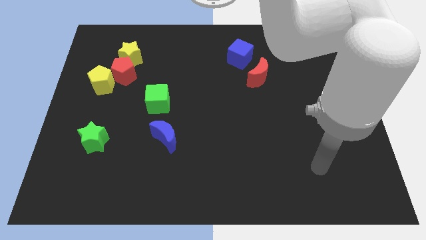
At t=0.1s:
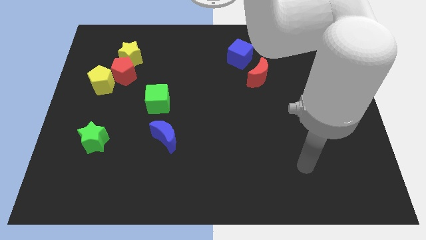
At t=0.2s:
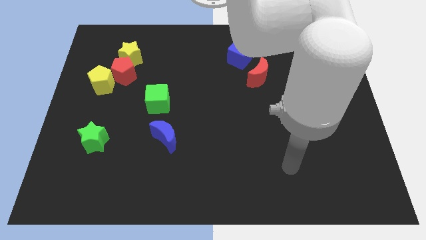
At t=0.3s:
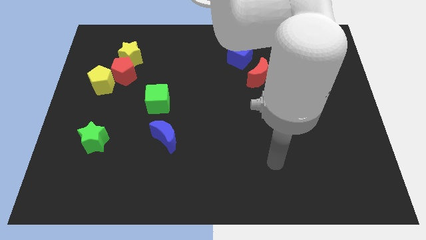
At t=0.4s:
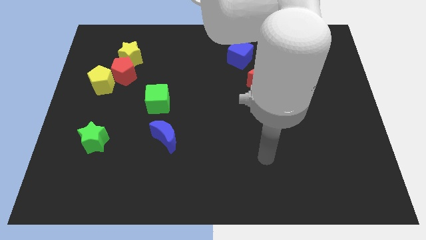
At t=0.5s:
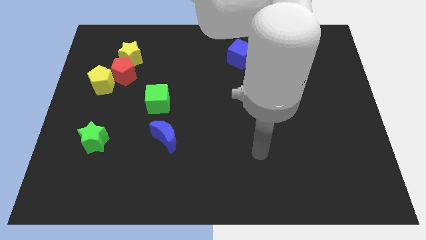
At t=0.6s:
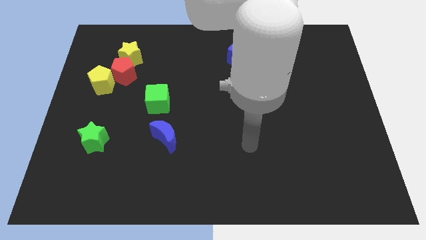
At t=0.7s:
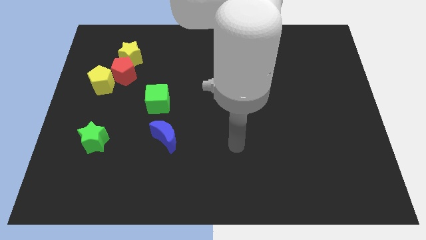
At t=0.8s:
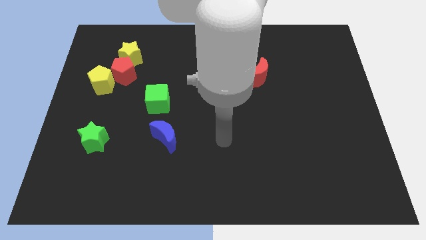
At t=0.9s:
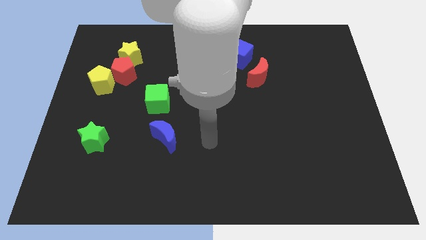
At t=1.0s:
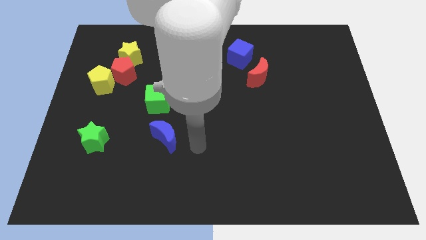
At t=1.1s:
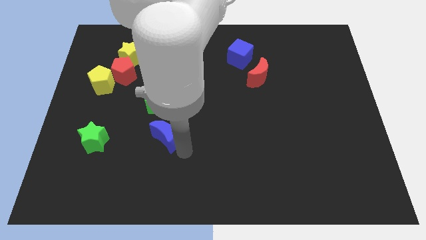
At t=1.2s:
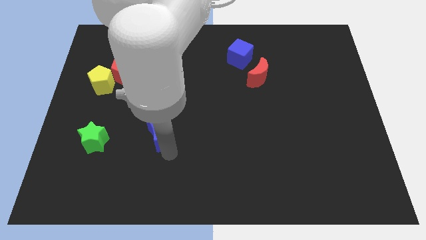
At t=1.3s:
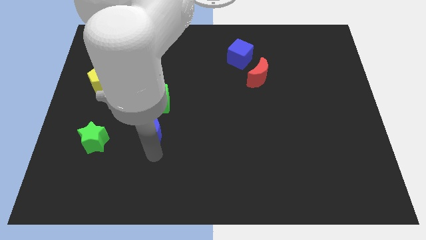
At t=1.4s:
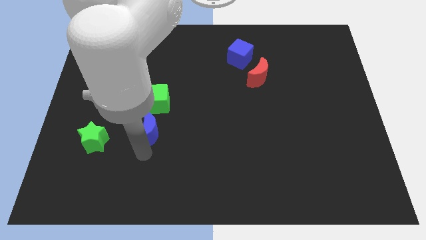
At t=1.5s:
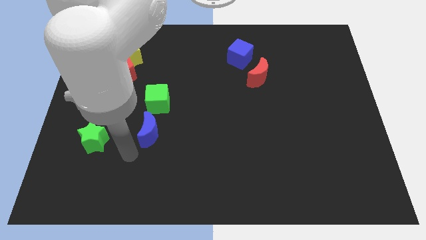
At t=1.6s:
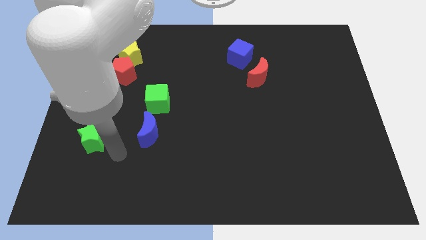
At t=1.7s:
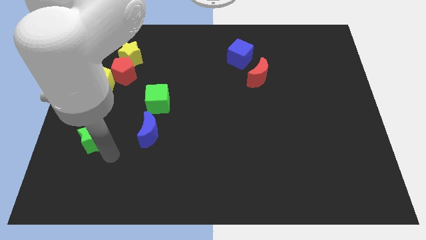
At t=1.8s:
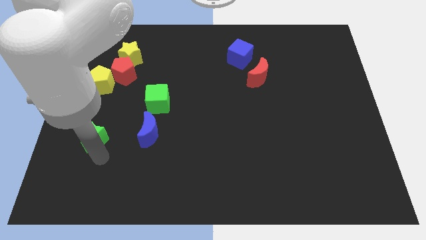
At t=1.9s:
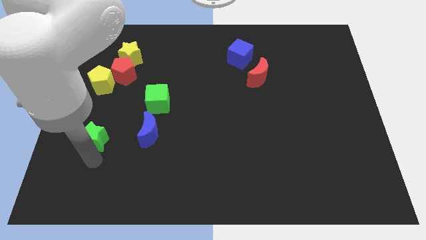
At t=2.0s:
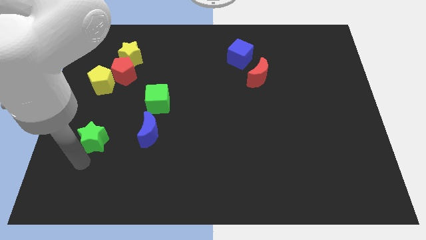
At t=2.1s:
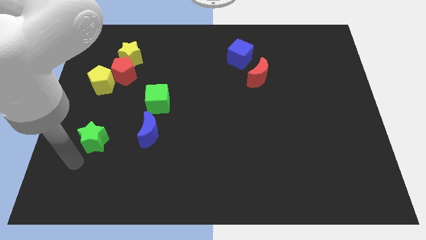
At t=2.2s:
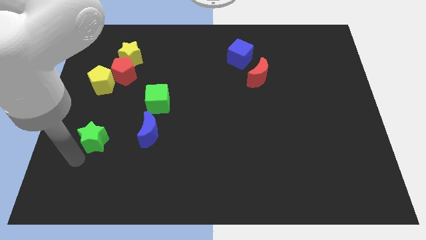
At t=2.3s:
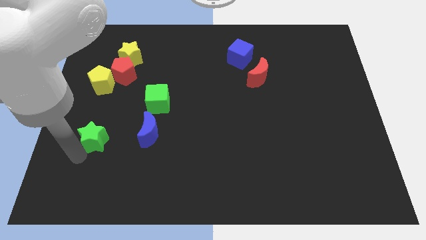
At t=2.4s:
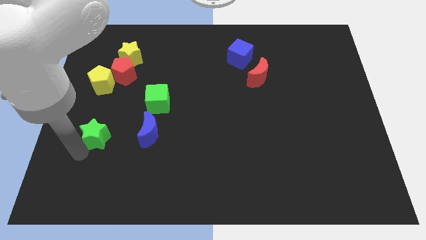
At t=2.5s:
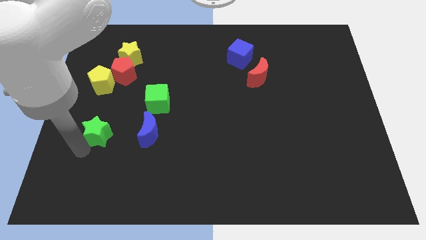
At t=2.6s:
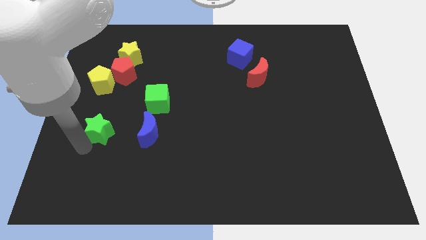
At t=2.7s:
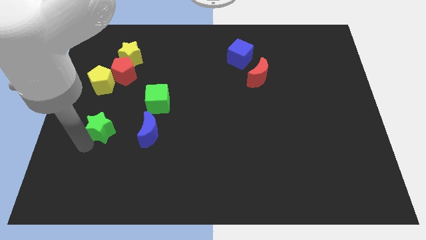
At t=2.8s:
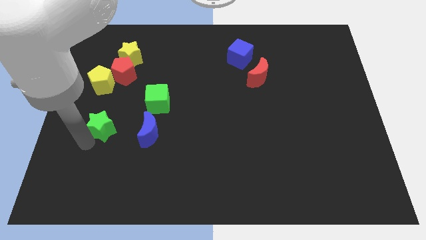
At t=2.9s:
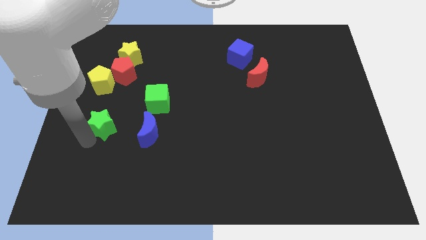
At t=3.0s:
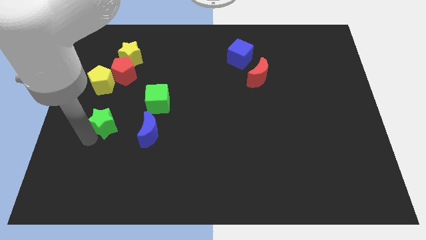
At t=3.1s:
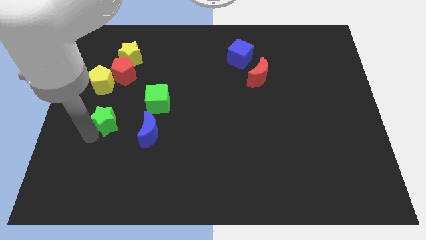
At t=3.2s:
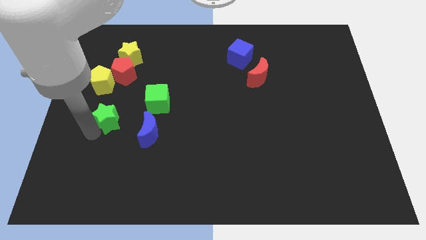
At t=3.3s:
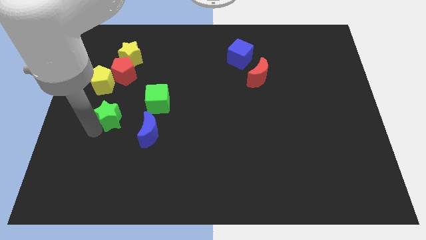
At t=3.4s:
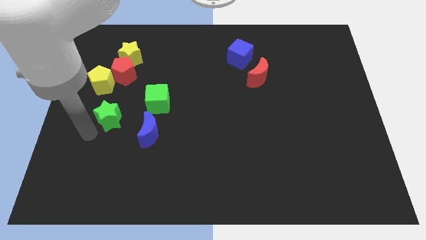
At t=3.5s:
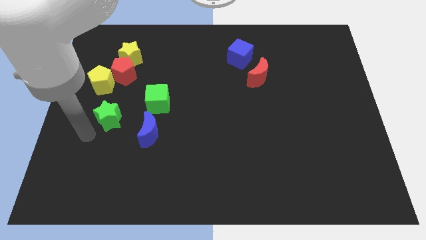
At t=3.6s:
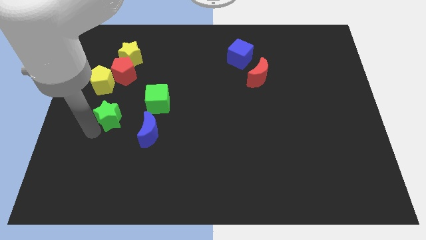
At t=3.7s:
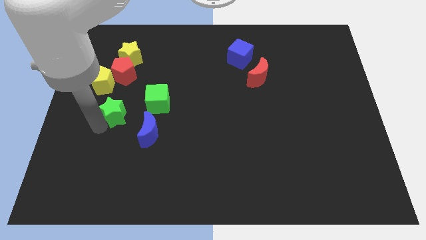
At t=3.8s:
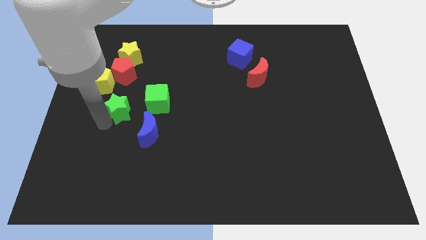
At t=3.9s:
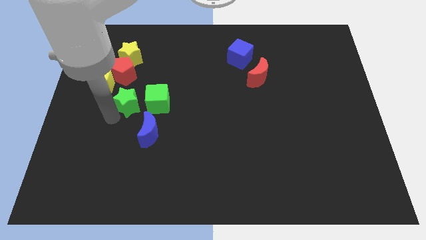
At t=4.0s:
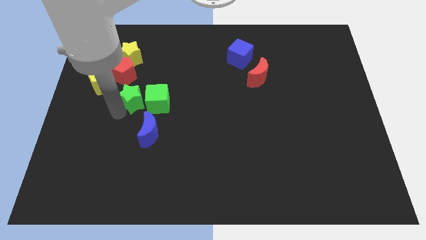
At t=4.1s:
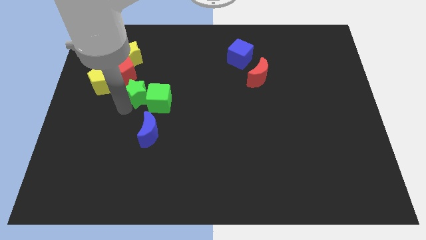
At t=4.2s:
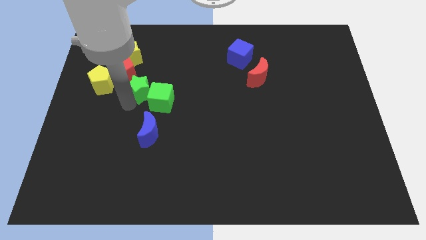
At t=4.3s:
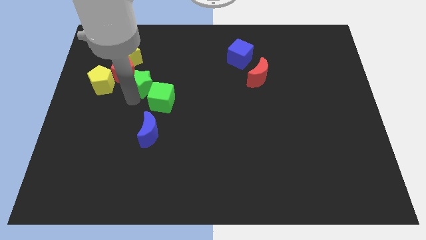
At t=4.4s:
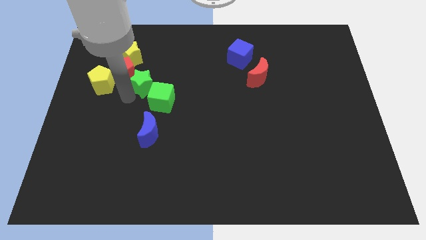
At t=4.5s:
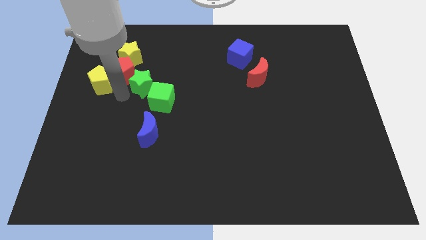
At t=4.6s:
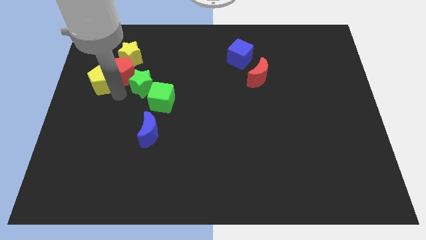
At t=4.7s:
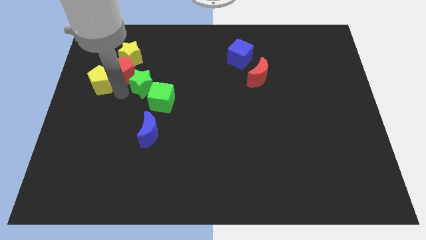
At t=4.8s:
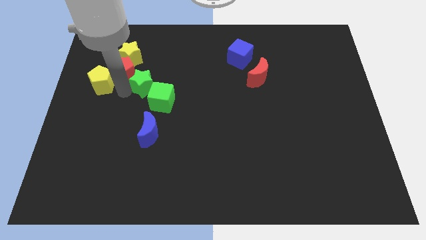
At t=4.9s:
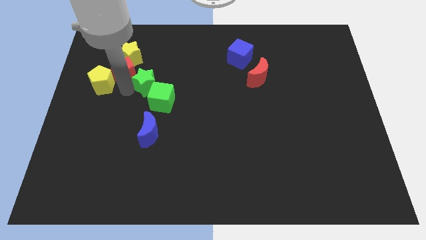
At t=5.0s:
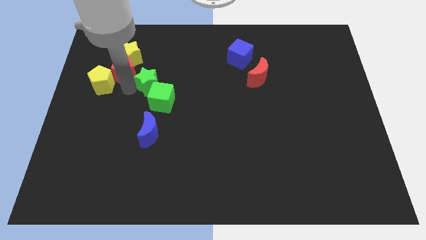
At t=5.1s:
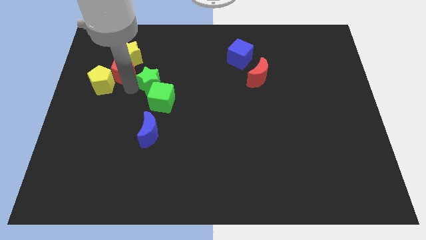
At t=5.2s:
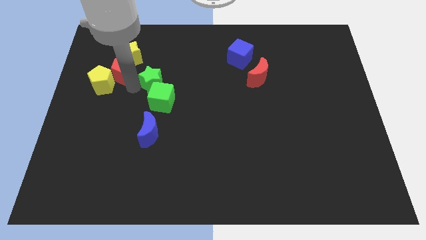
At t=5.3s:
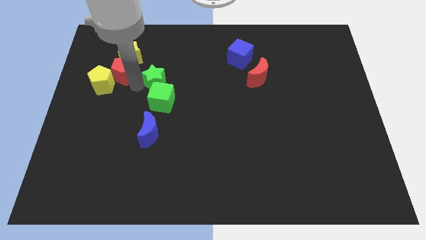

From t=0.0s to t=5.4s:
slide the green star diagonally upwards and right

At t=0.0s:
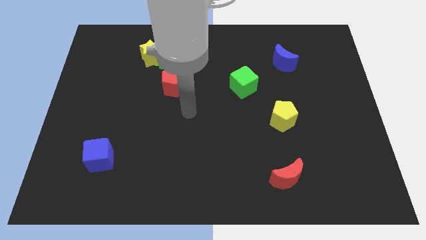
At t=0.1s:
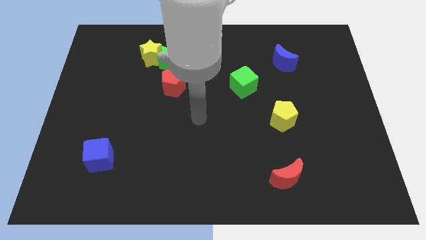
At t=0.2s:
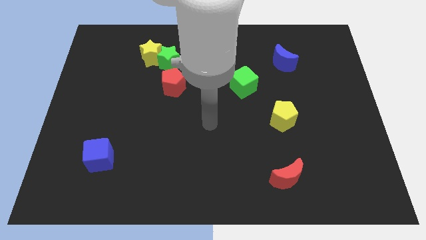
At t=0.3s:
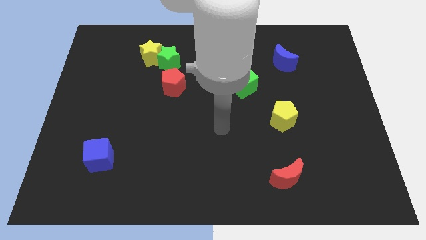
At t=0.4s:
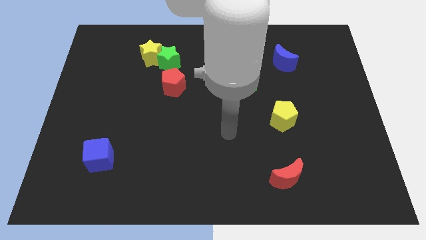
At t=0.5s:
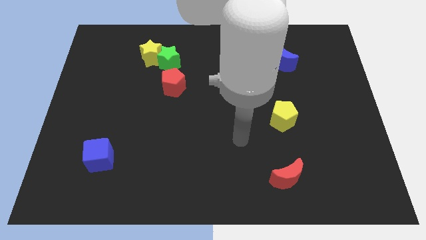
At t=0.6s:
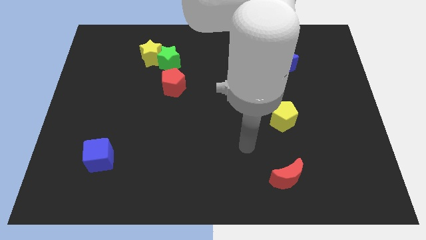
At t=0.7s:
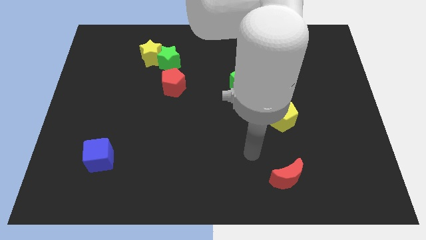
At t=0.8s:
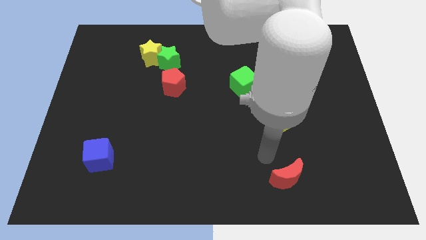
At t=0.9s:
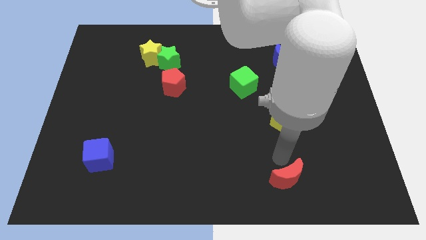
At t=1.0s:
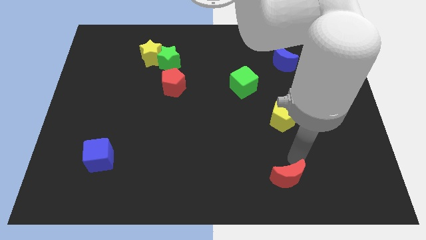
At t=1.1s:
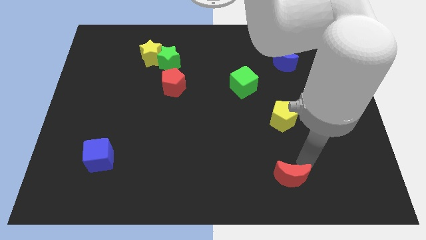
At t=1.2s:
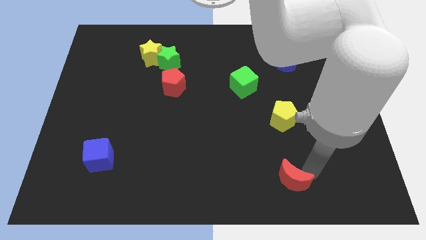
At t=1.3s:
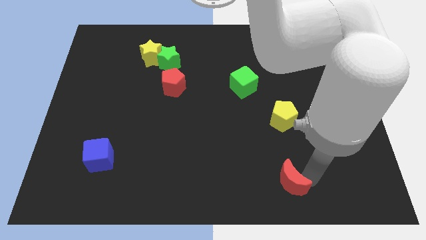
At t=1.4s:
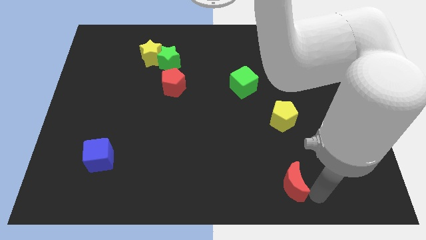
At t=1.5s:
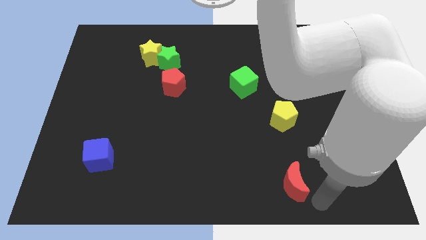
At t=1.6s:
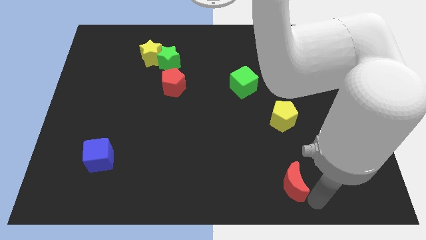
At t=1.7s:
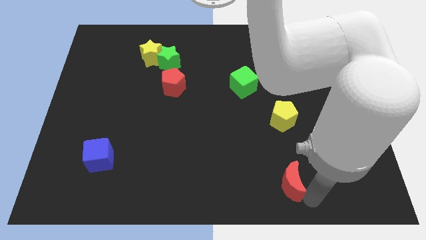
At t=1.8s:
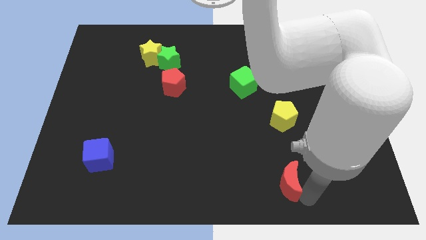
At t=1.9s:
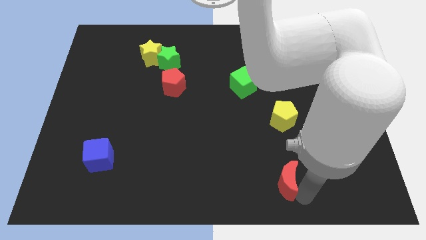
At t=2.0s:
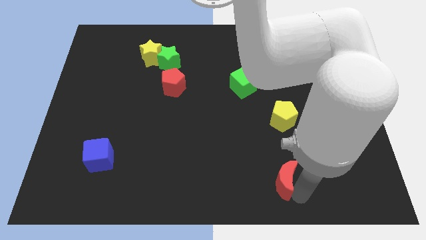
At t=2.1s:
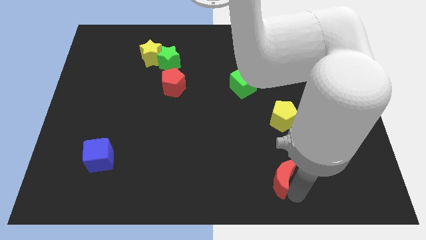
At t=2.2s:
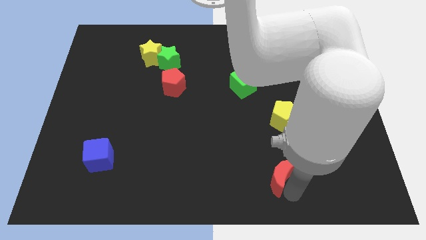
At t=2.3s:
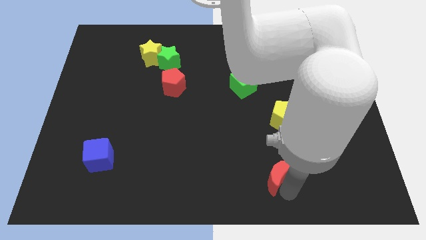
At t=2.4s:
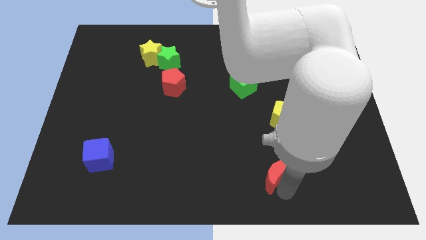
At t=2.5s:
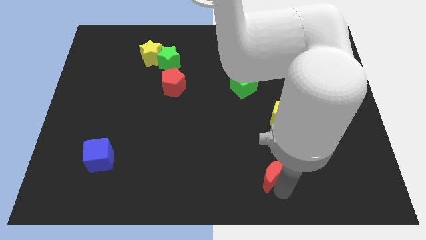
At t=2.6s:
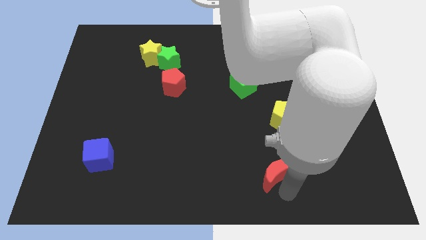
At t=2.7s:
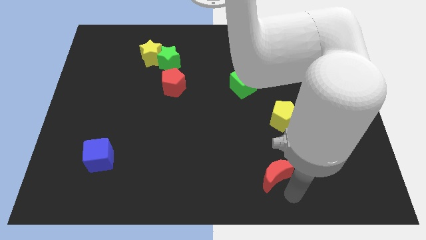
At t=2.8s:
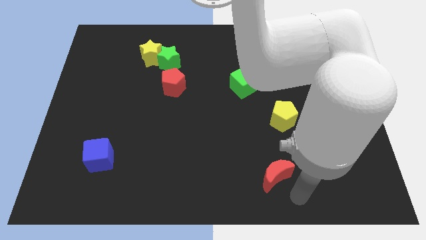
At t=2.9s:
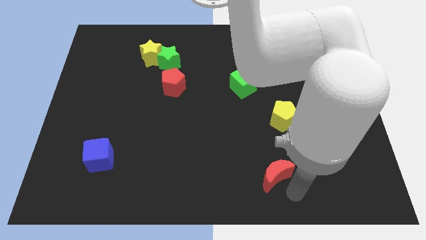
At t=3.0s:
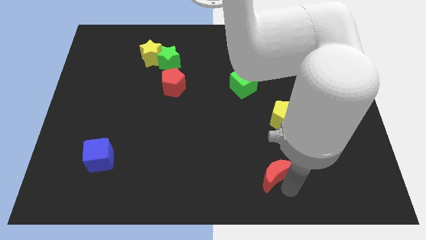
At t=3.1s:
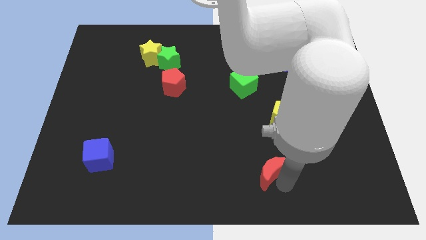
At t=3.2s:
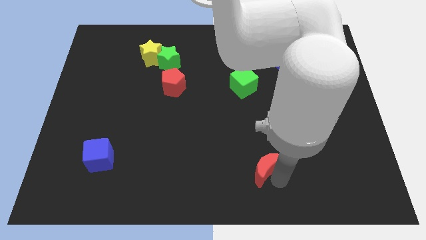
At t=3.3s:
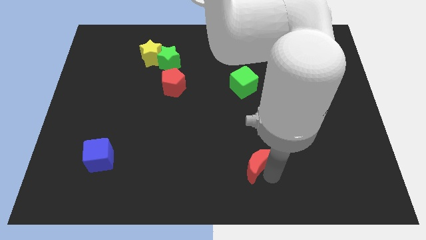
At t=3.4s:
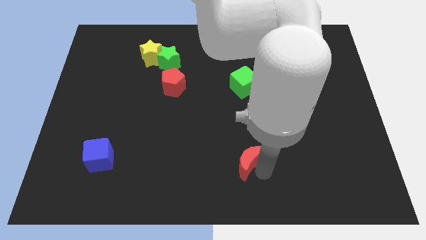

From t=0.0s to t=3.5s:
slightly move the red moon upwards and then to the left
